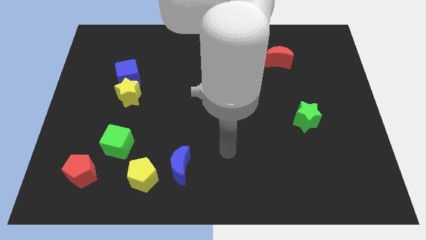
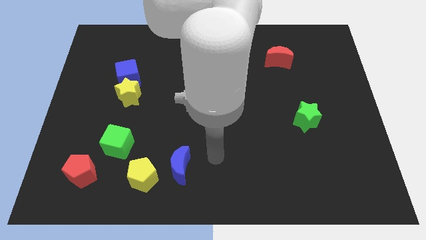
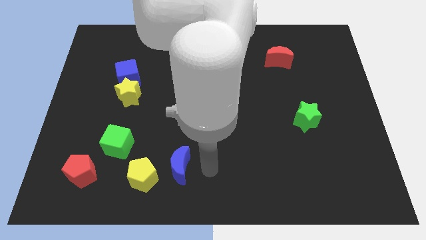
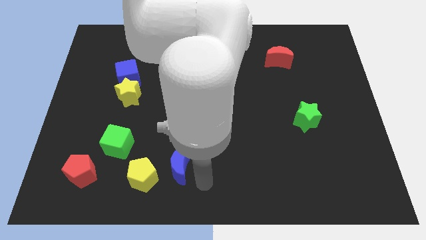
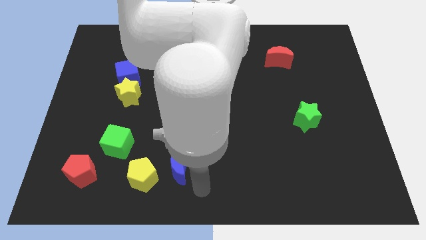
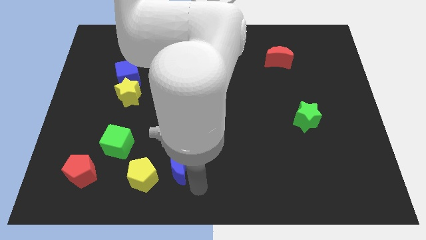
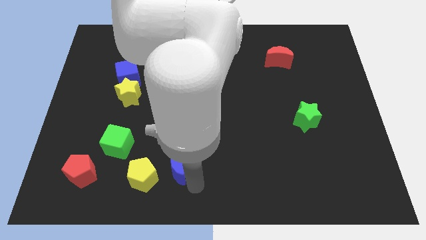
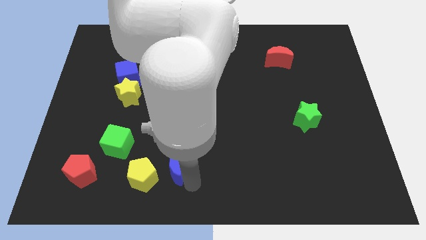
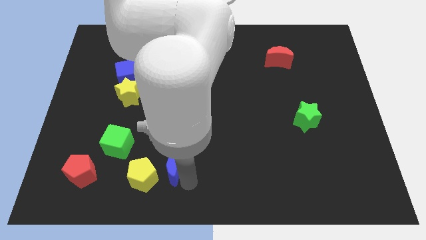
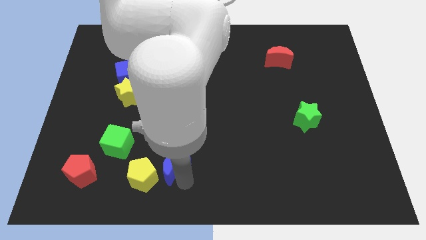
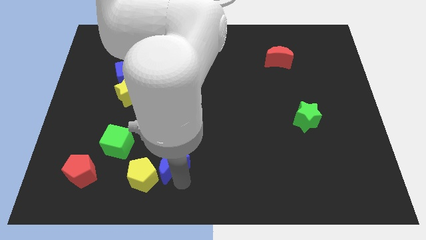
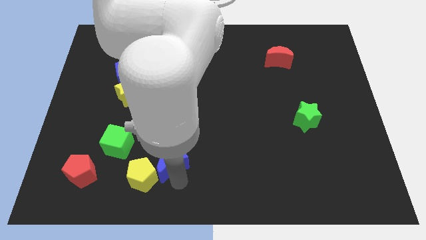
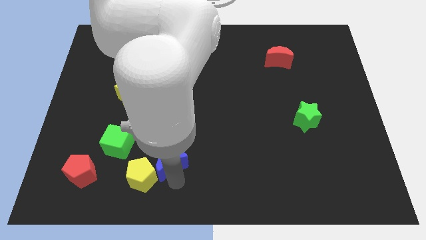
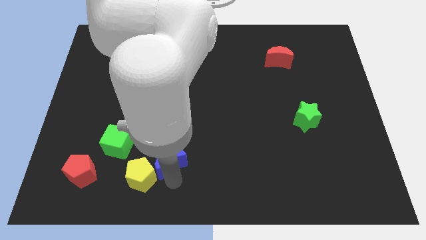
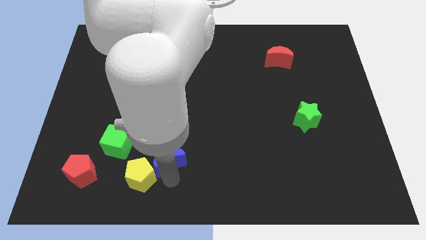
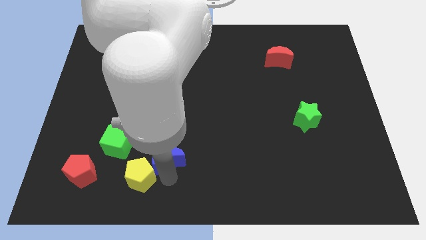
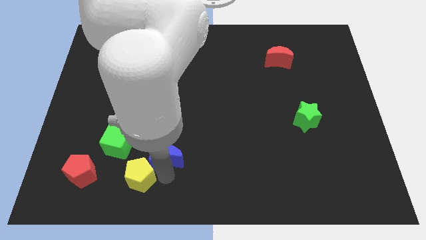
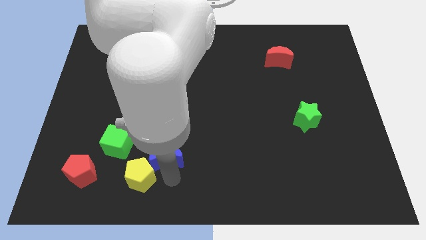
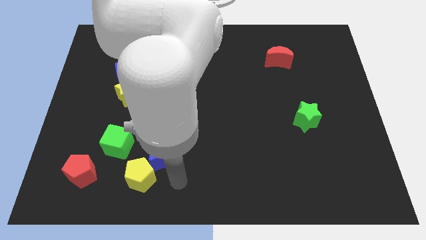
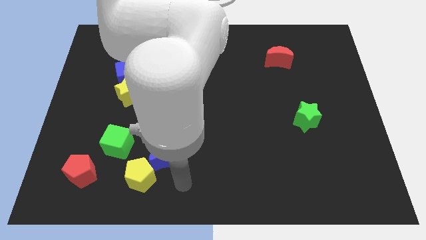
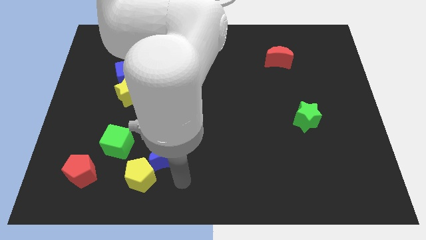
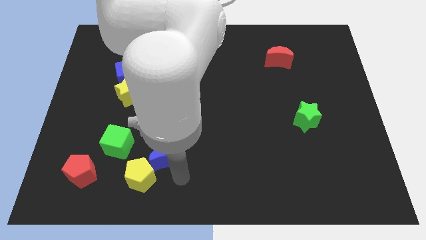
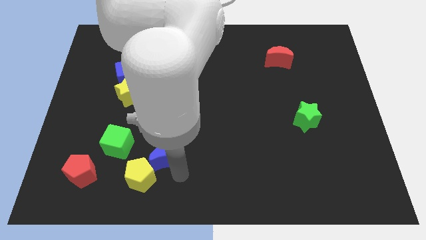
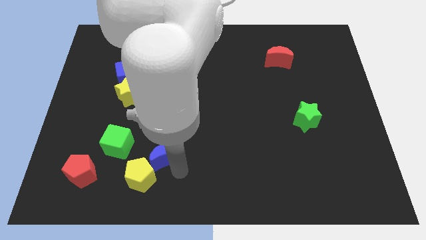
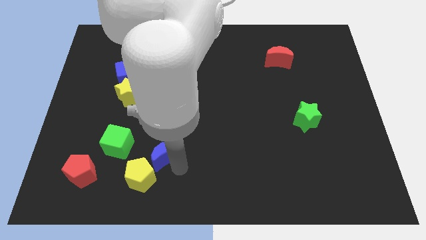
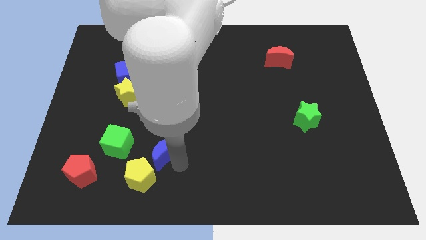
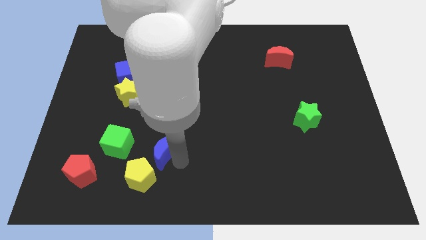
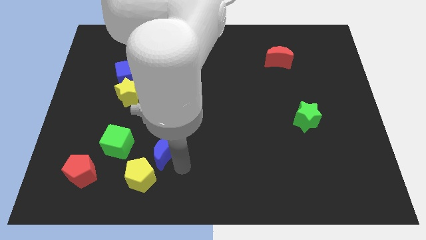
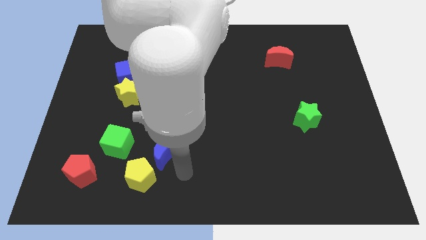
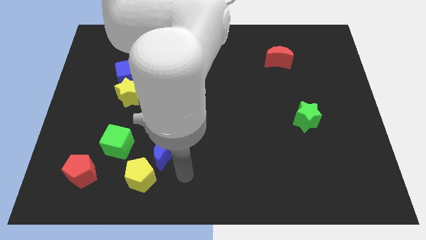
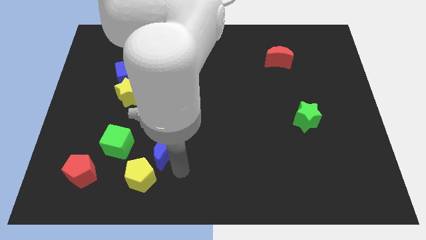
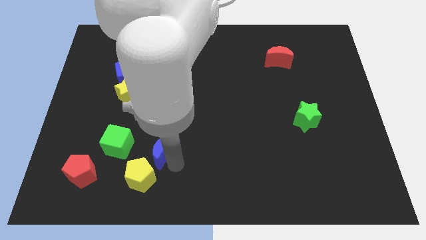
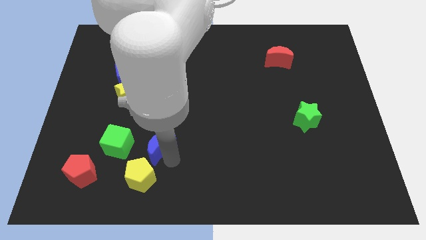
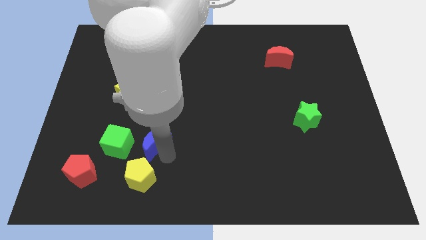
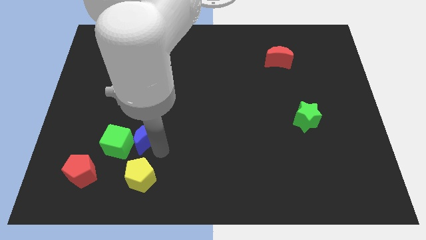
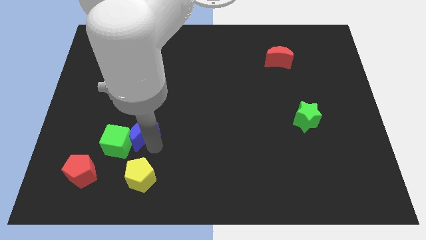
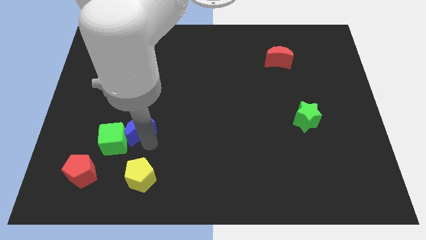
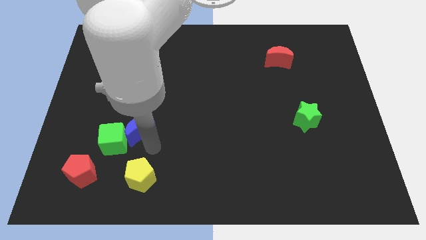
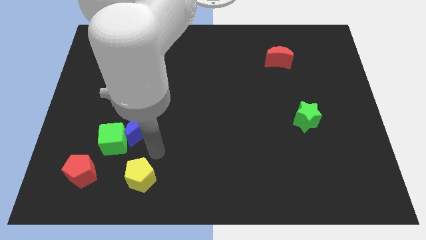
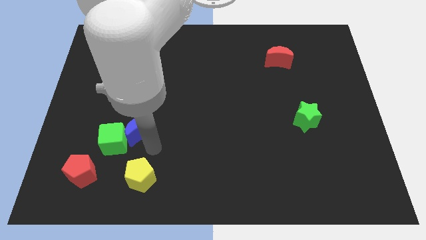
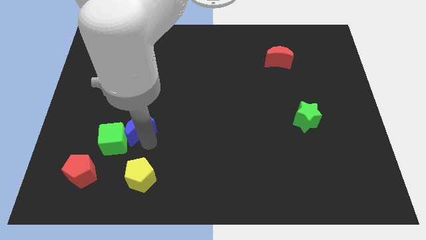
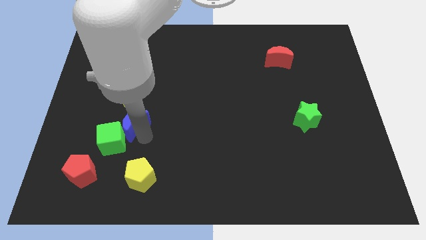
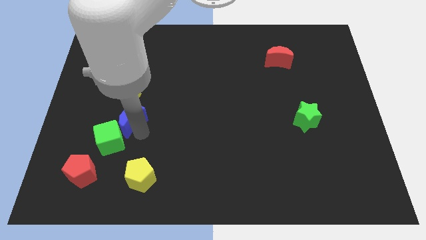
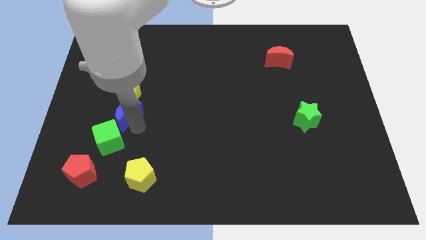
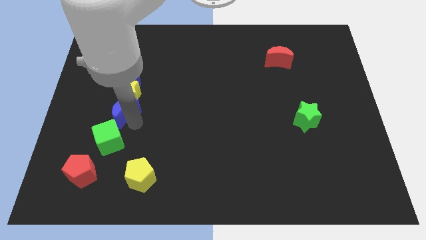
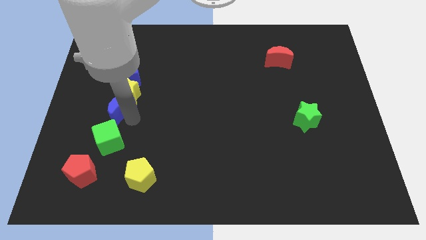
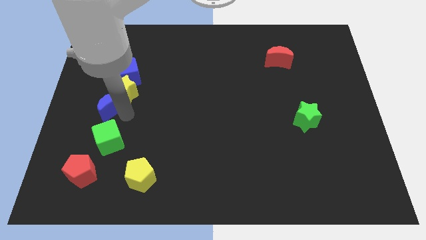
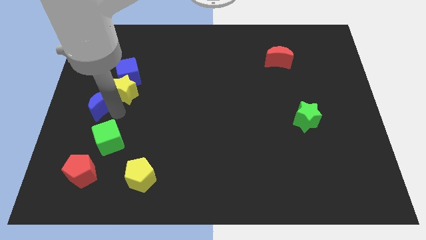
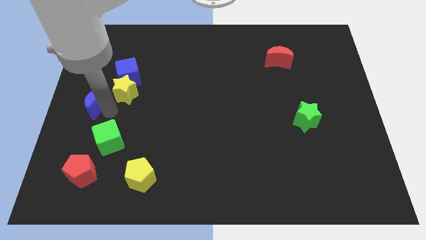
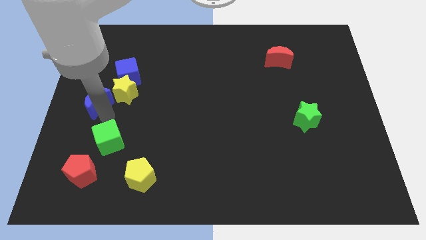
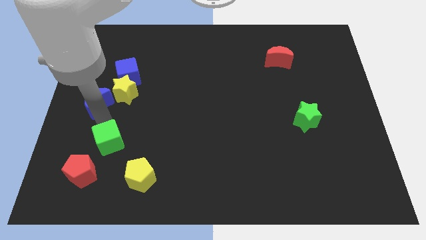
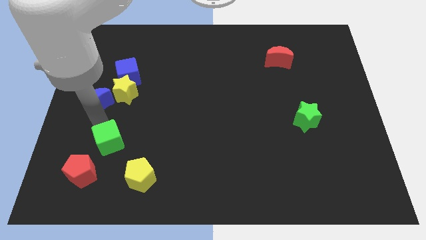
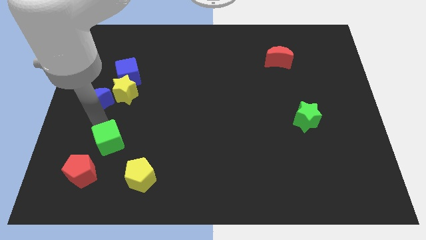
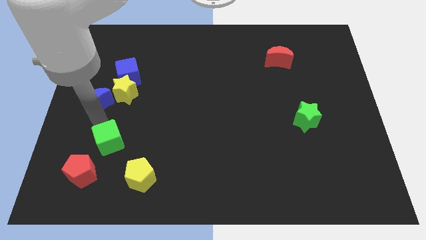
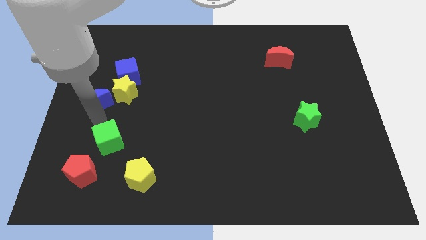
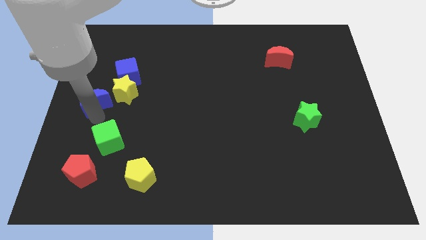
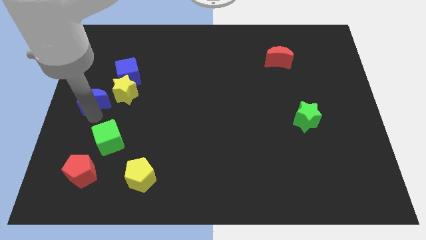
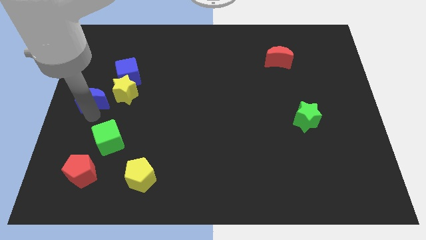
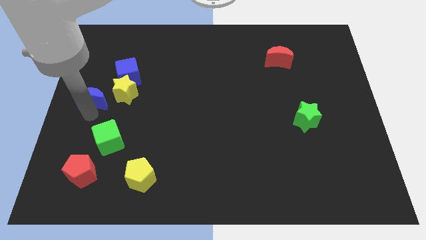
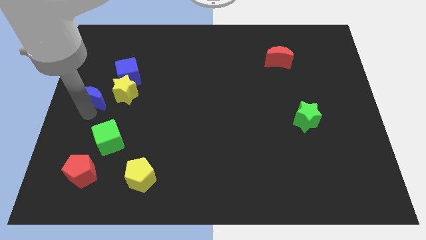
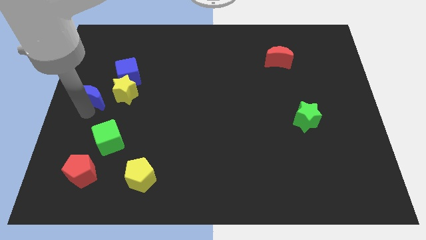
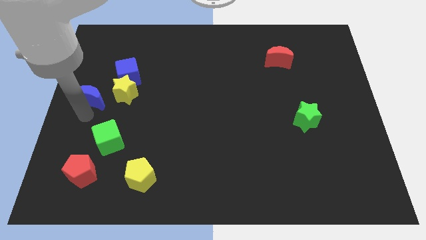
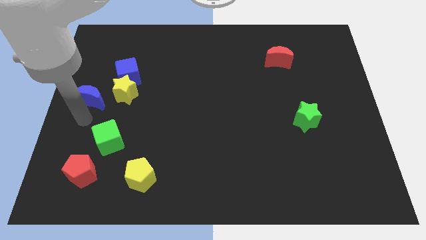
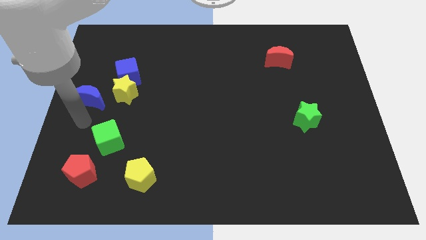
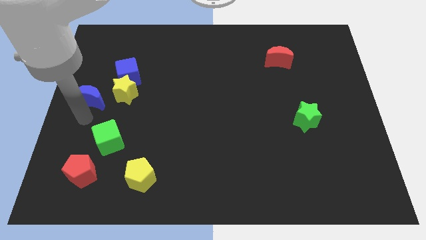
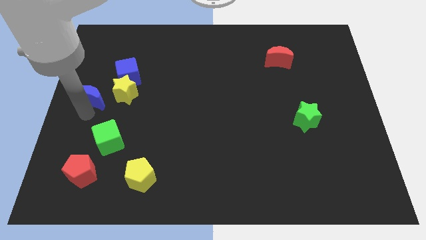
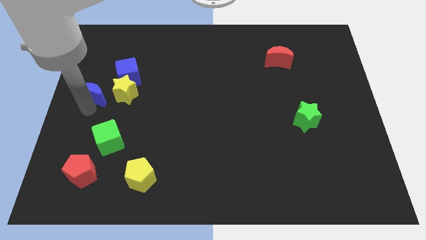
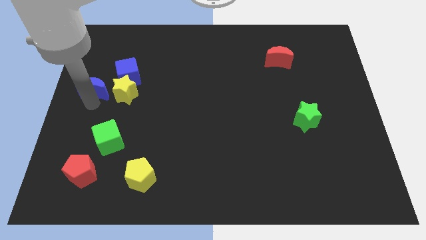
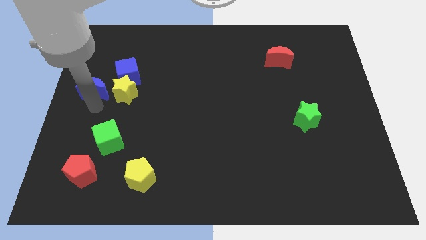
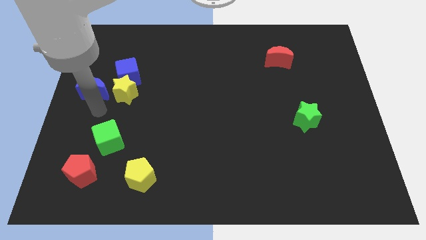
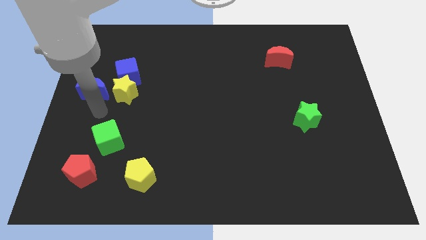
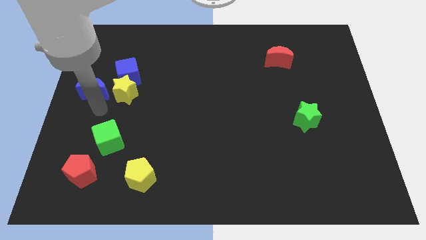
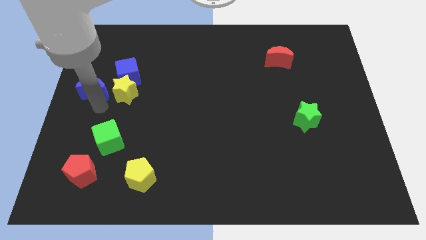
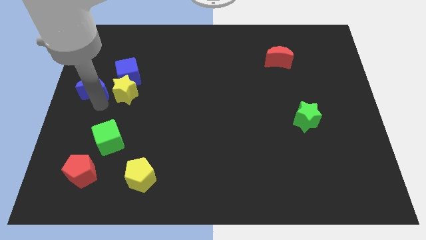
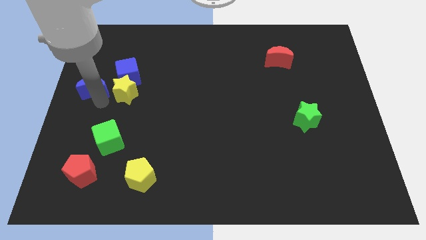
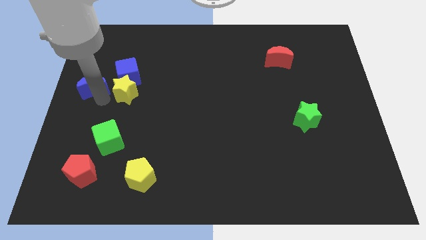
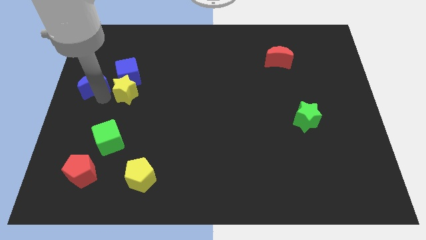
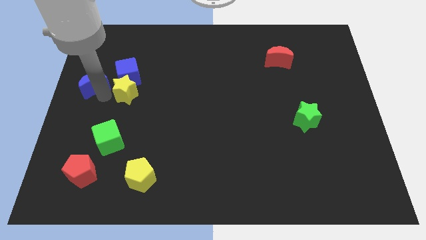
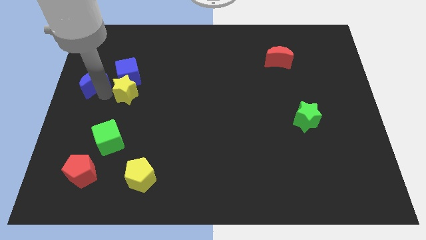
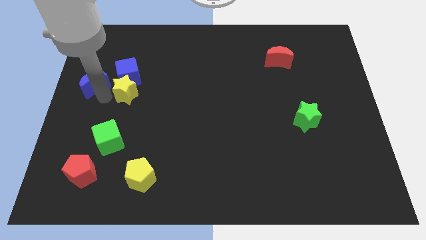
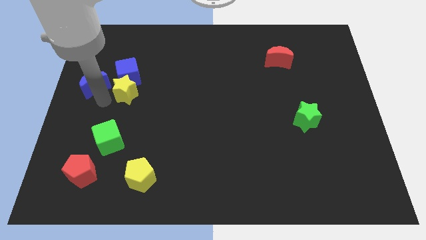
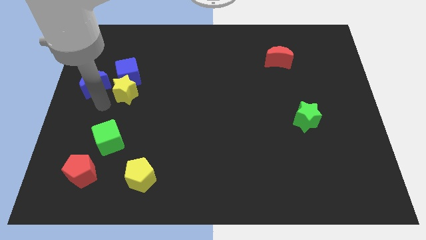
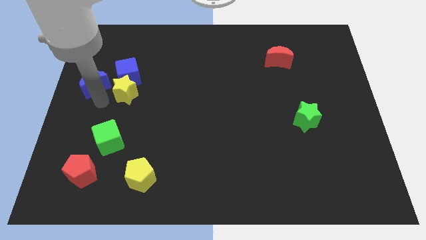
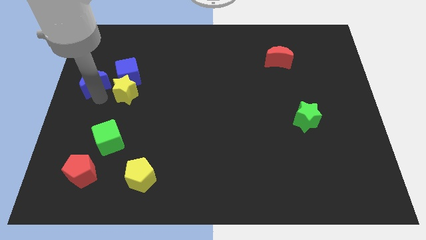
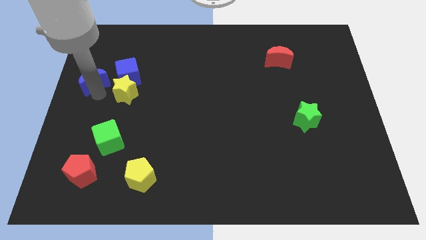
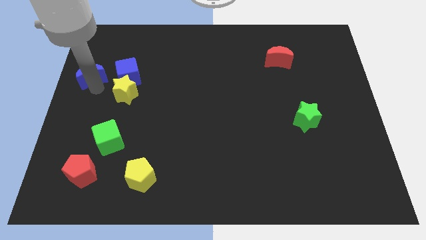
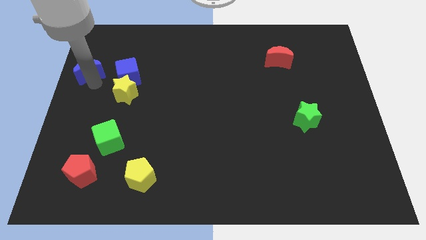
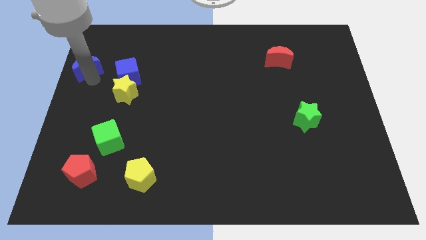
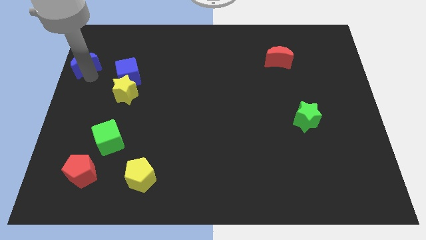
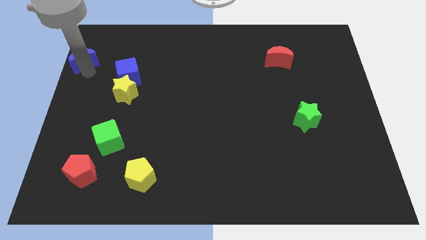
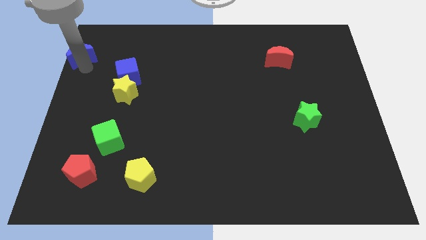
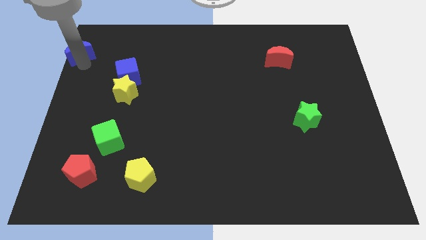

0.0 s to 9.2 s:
put the blue moon to the top left corner
